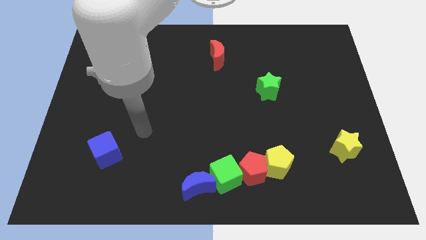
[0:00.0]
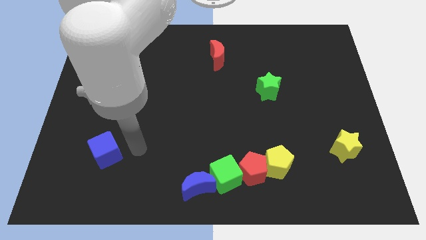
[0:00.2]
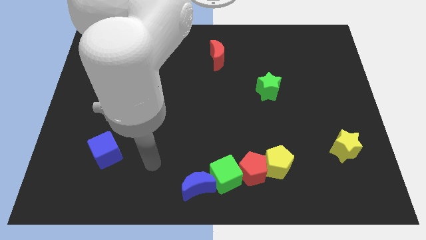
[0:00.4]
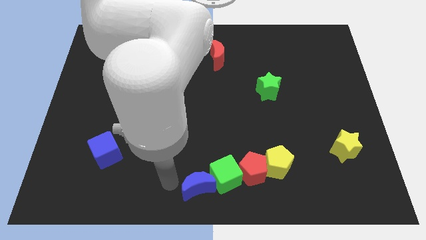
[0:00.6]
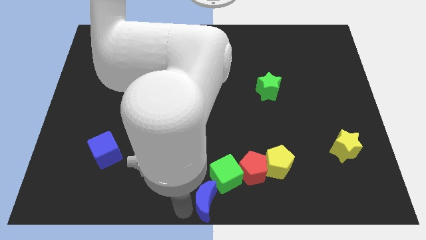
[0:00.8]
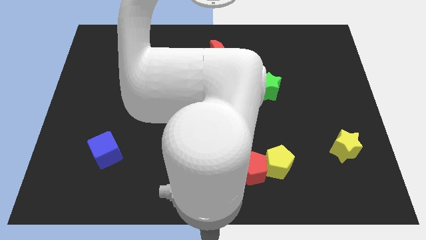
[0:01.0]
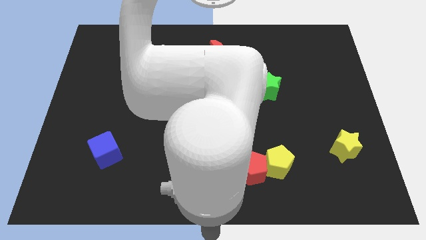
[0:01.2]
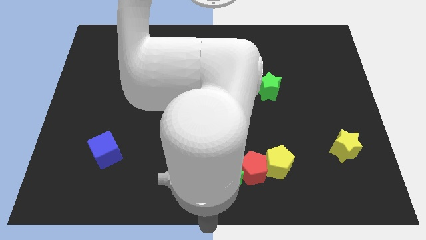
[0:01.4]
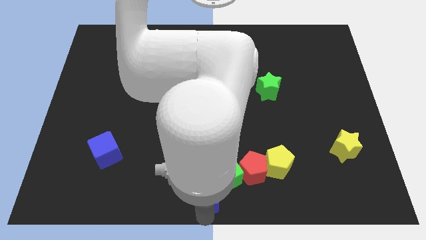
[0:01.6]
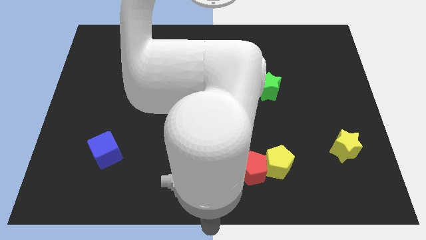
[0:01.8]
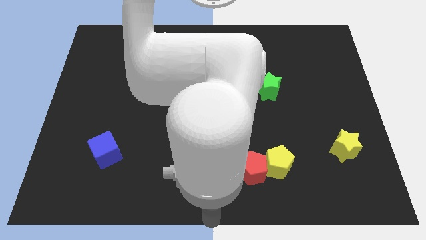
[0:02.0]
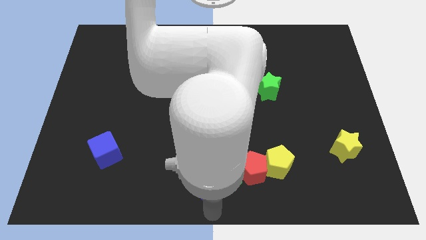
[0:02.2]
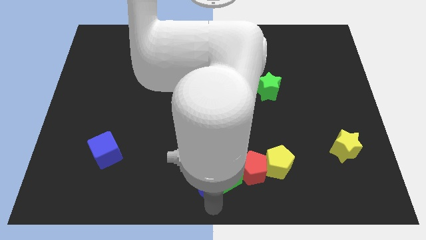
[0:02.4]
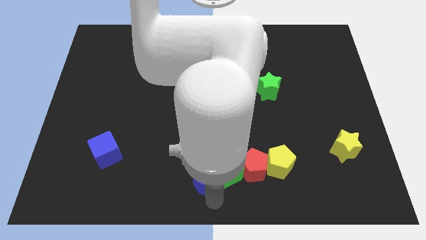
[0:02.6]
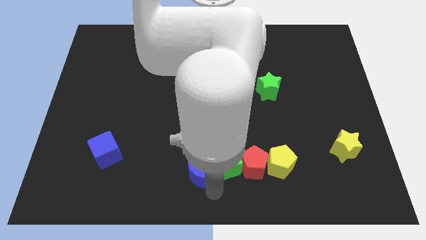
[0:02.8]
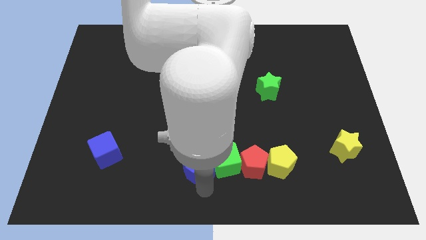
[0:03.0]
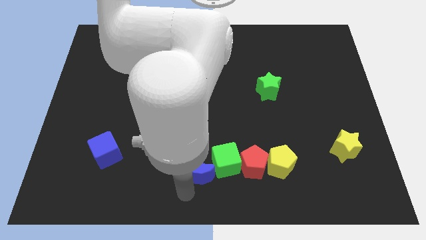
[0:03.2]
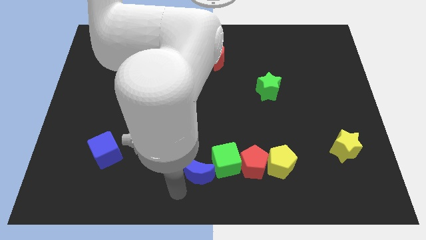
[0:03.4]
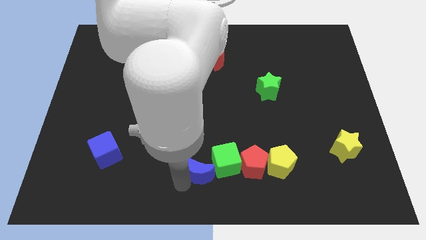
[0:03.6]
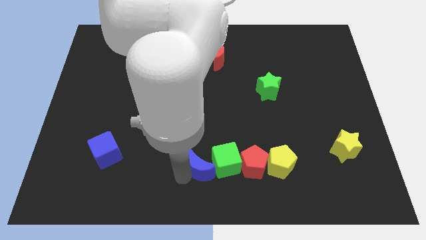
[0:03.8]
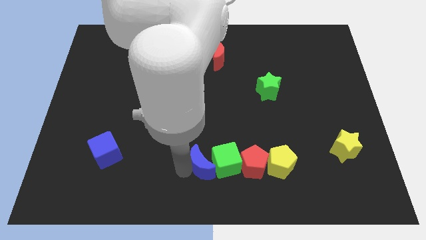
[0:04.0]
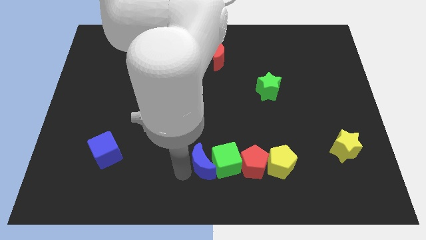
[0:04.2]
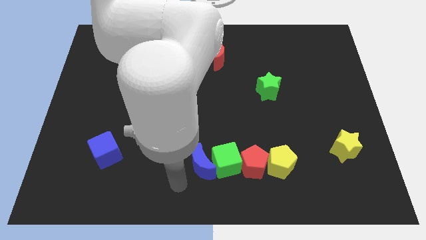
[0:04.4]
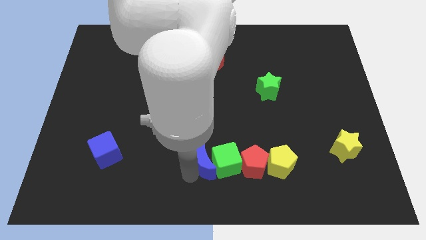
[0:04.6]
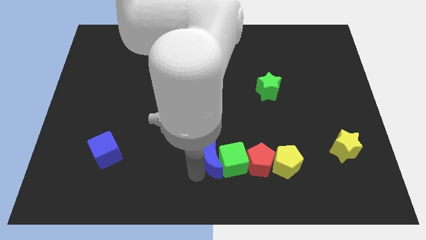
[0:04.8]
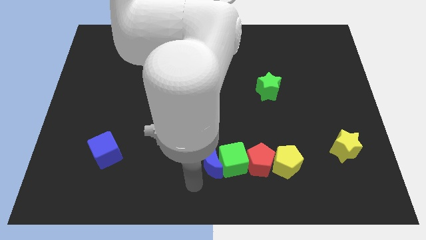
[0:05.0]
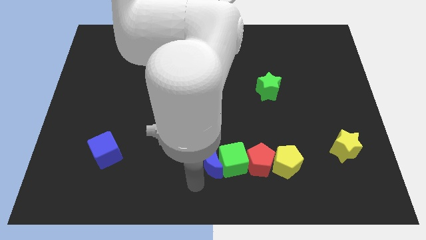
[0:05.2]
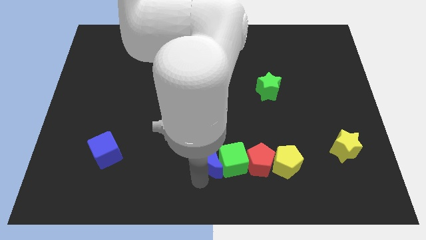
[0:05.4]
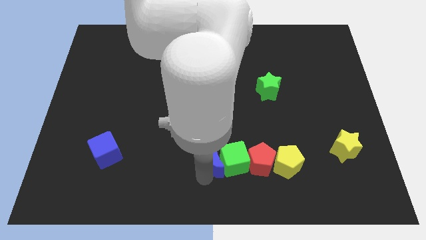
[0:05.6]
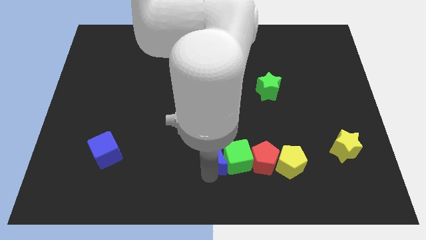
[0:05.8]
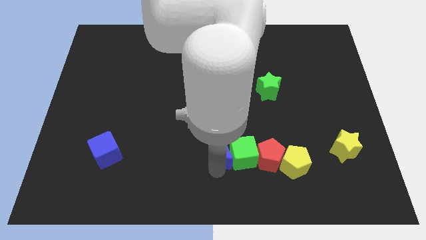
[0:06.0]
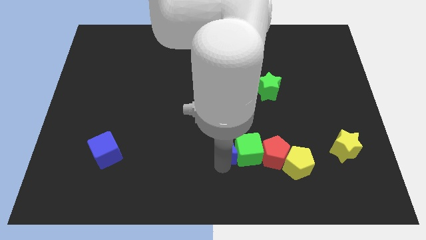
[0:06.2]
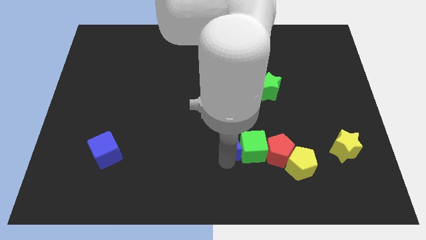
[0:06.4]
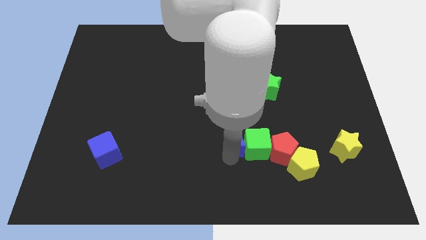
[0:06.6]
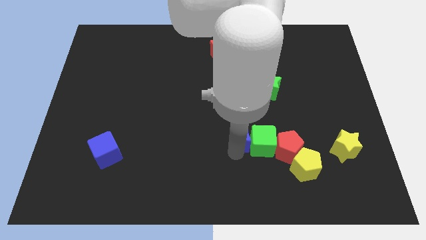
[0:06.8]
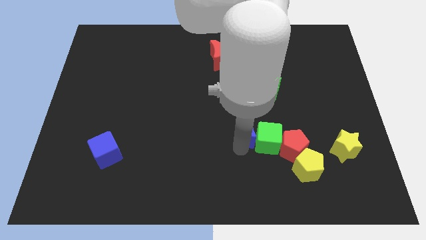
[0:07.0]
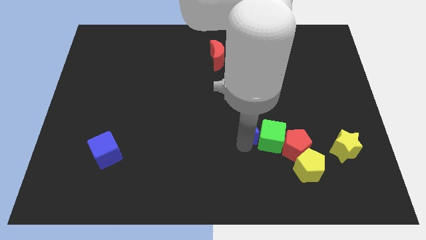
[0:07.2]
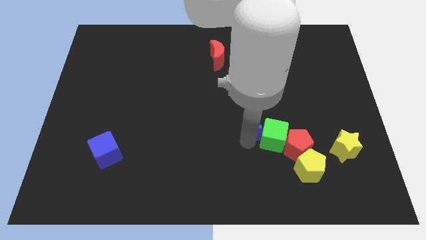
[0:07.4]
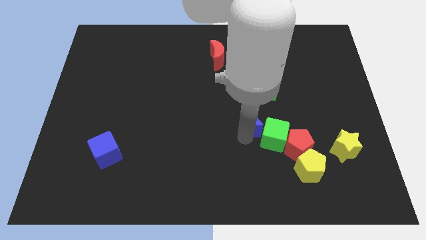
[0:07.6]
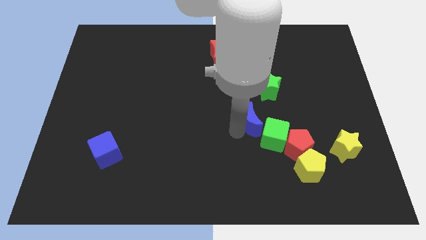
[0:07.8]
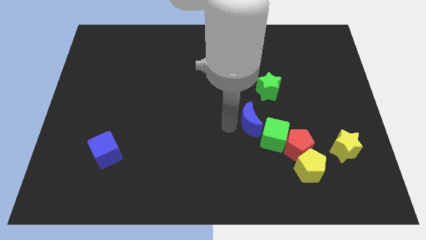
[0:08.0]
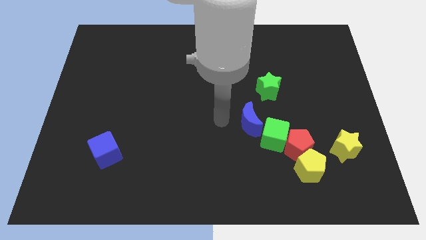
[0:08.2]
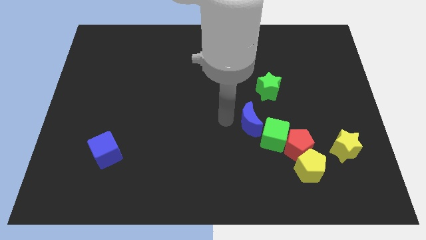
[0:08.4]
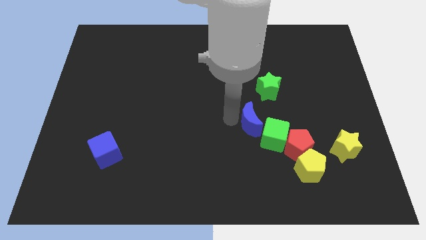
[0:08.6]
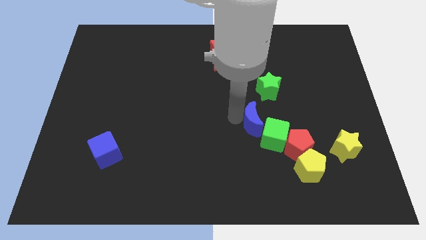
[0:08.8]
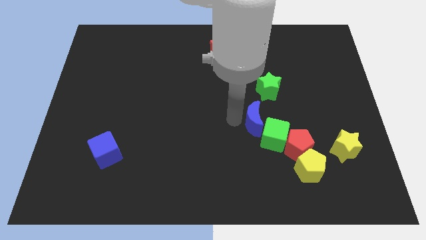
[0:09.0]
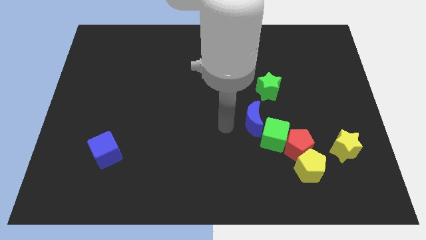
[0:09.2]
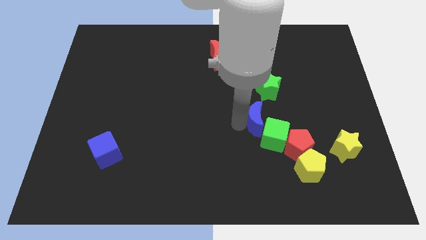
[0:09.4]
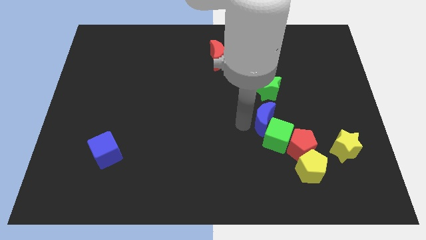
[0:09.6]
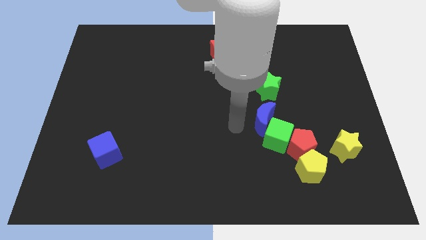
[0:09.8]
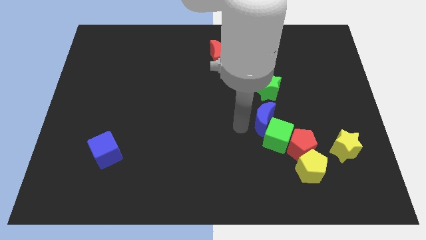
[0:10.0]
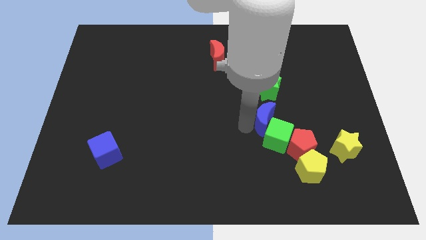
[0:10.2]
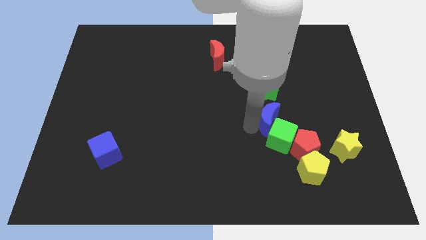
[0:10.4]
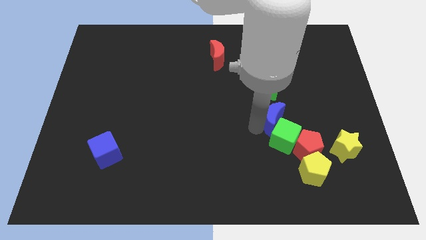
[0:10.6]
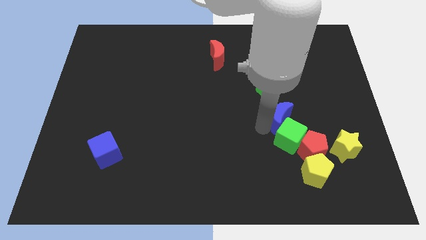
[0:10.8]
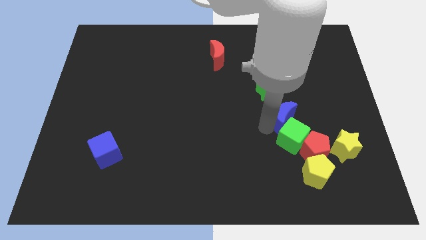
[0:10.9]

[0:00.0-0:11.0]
move the blue moon to the bottom right of the green star

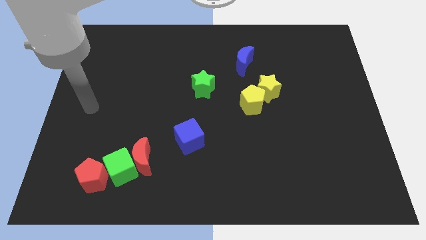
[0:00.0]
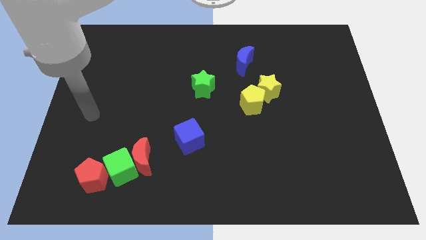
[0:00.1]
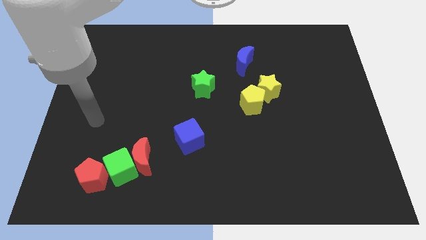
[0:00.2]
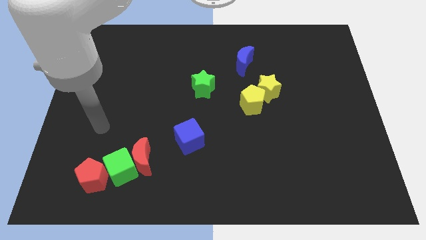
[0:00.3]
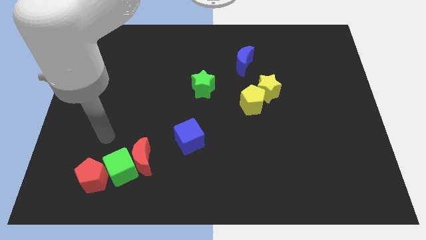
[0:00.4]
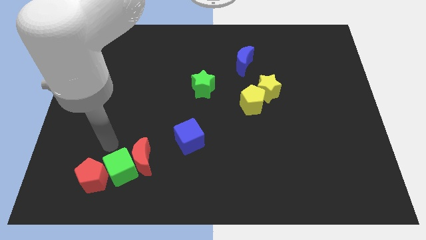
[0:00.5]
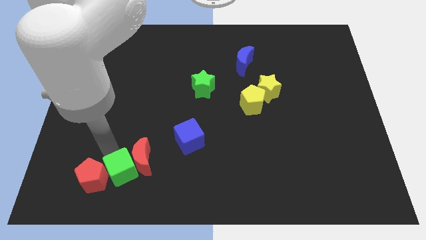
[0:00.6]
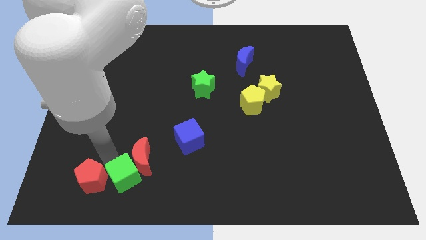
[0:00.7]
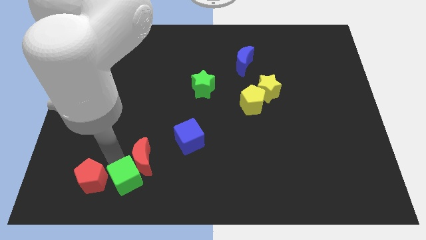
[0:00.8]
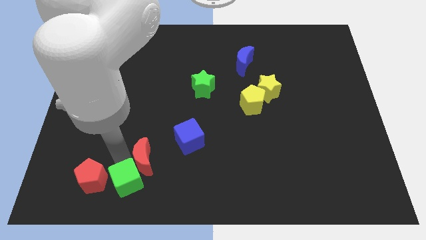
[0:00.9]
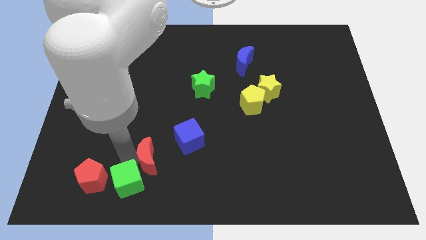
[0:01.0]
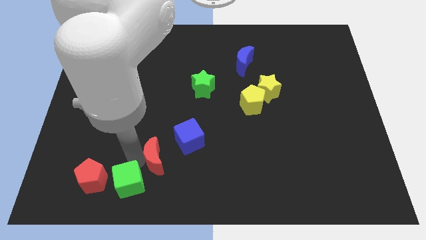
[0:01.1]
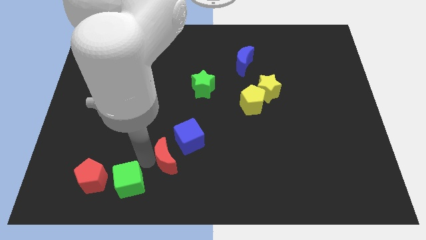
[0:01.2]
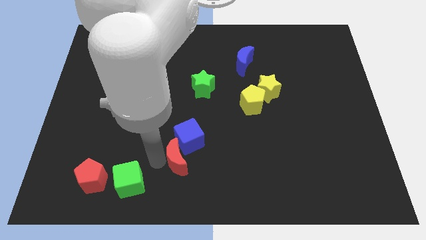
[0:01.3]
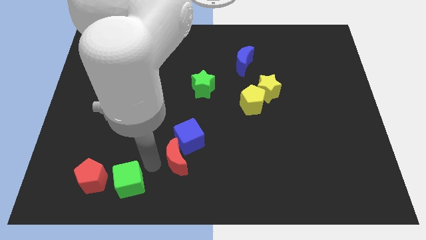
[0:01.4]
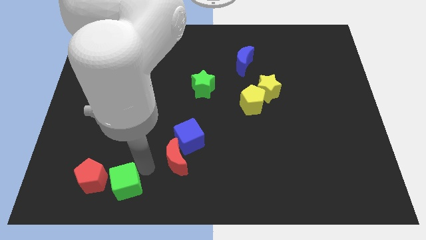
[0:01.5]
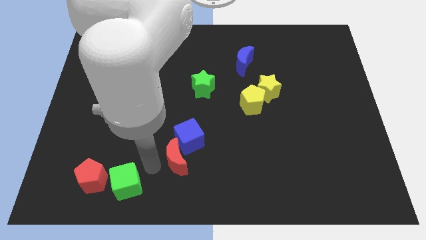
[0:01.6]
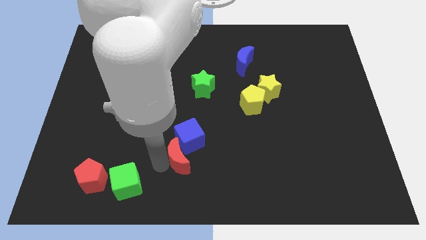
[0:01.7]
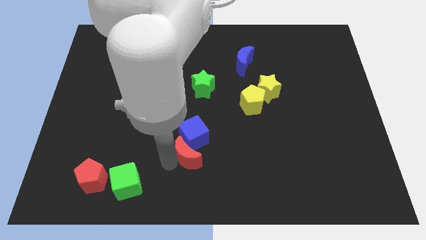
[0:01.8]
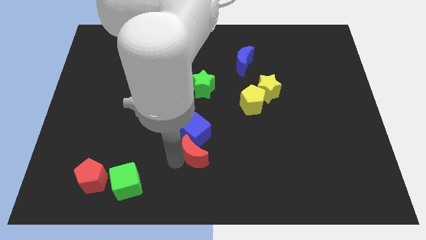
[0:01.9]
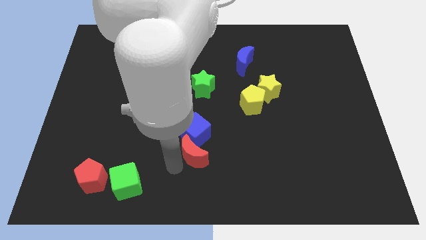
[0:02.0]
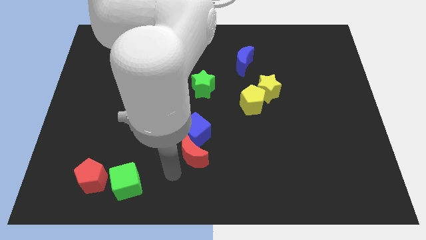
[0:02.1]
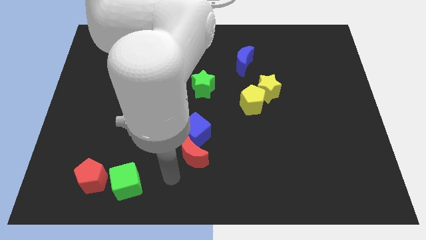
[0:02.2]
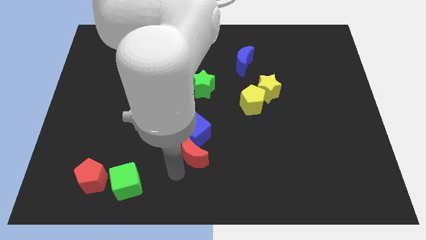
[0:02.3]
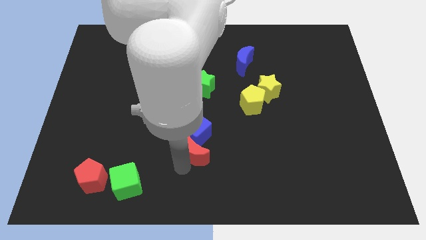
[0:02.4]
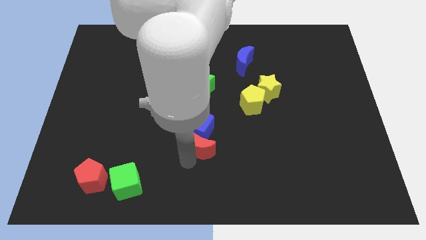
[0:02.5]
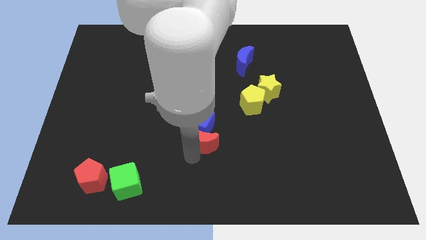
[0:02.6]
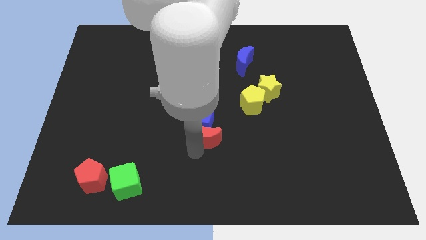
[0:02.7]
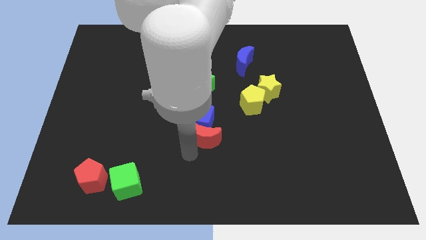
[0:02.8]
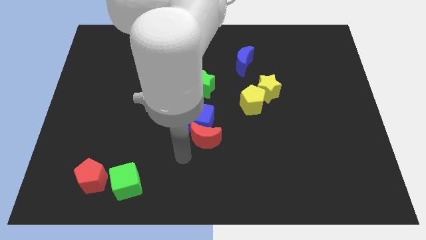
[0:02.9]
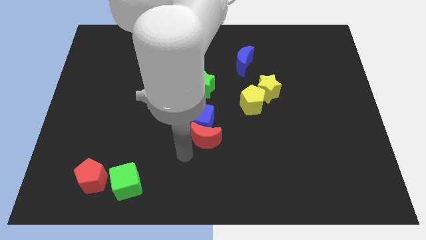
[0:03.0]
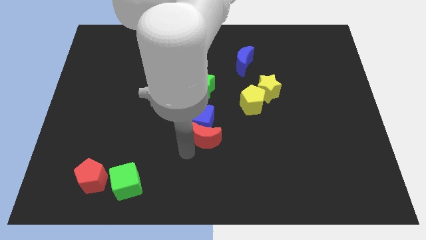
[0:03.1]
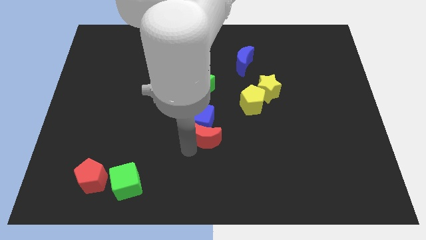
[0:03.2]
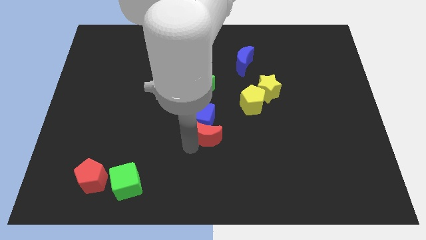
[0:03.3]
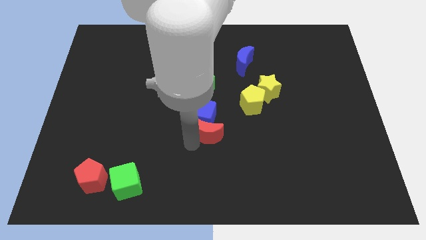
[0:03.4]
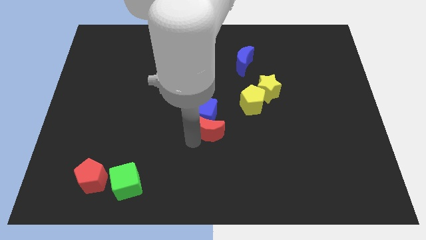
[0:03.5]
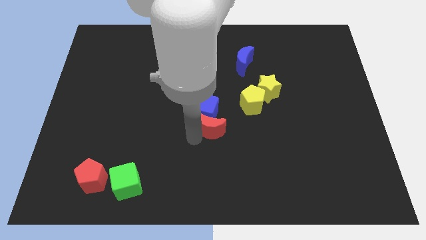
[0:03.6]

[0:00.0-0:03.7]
put the red moon to the bottom left of the yellow pentagon
